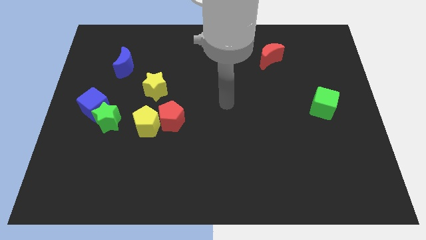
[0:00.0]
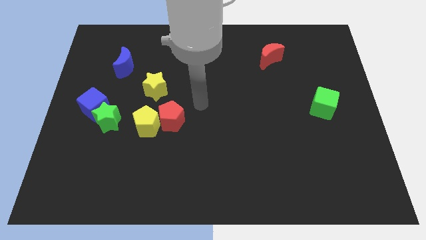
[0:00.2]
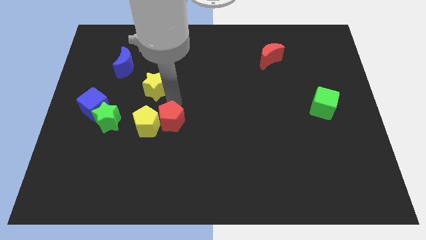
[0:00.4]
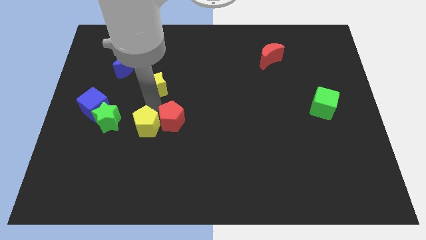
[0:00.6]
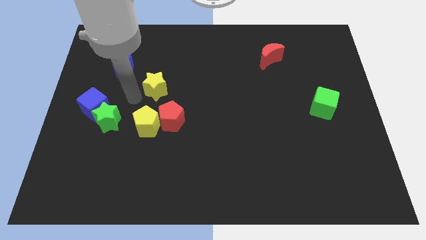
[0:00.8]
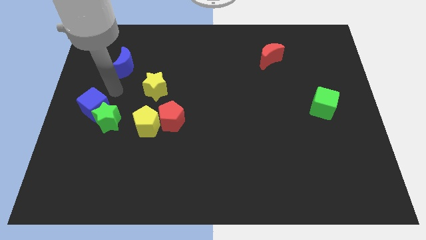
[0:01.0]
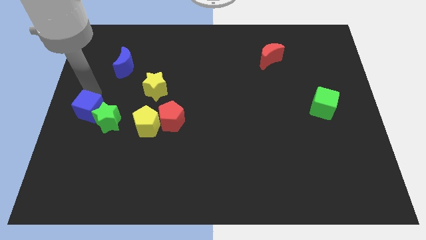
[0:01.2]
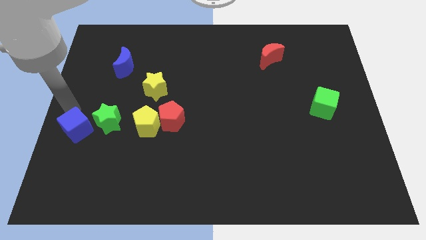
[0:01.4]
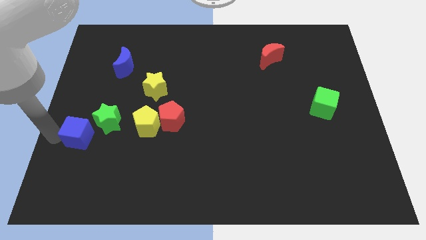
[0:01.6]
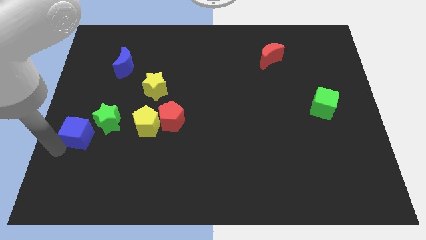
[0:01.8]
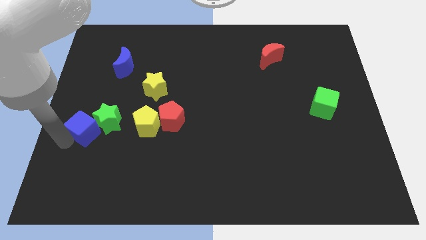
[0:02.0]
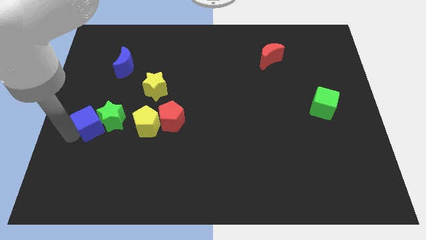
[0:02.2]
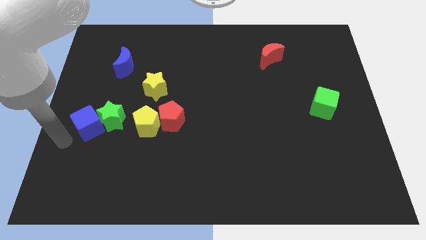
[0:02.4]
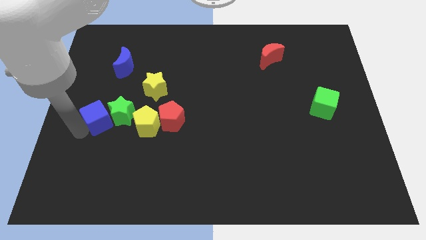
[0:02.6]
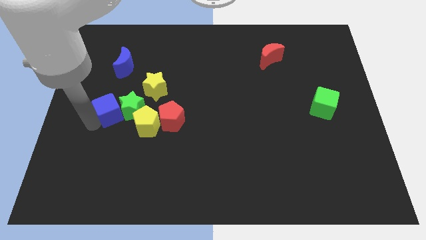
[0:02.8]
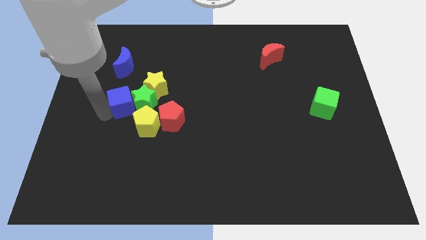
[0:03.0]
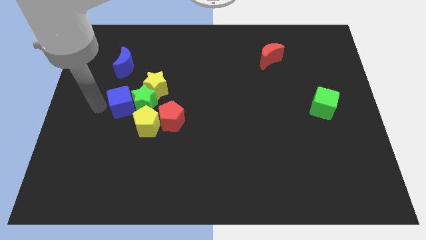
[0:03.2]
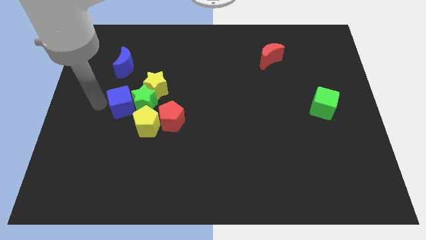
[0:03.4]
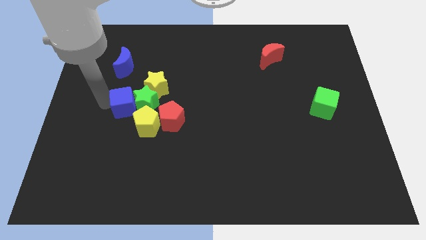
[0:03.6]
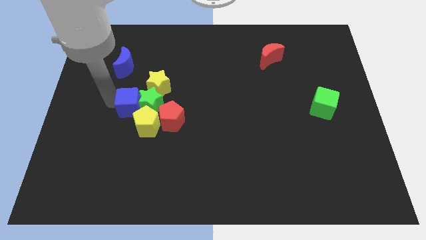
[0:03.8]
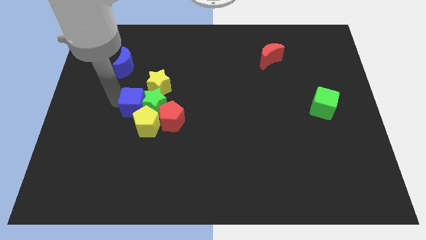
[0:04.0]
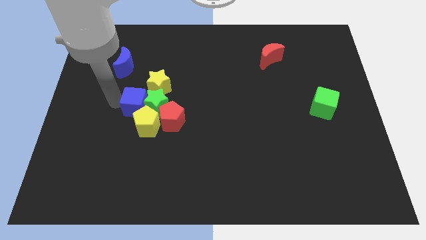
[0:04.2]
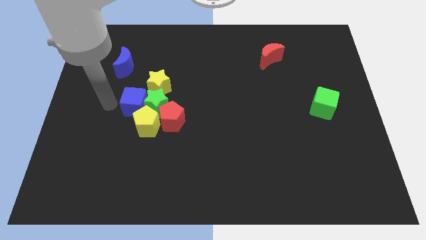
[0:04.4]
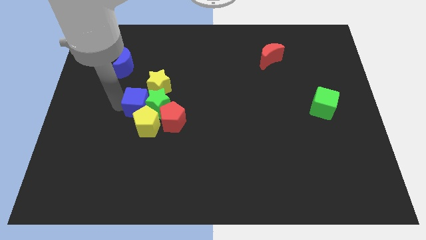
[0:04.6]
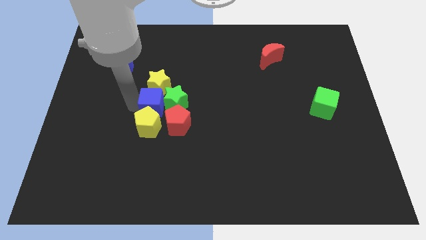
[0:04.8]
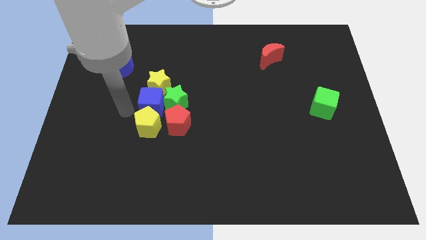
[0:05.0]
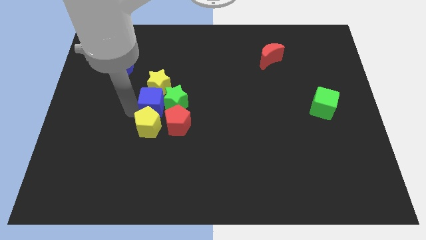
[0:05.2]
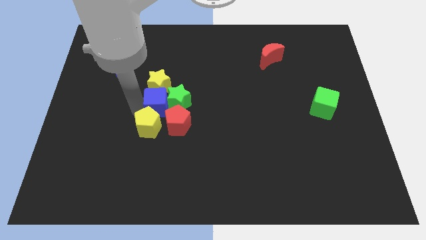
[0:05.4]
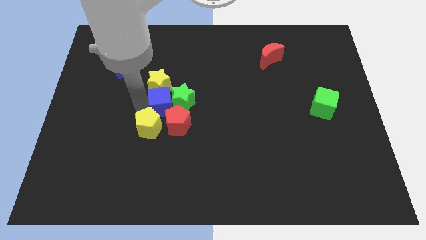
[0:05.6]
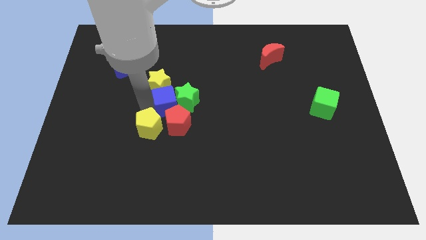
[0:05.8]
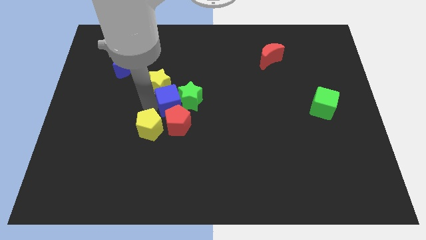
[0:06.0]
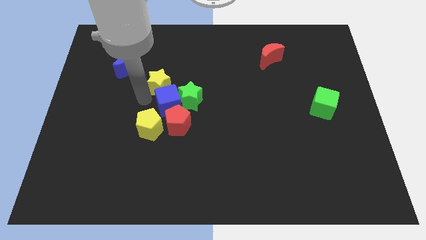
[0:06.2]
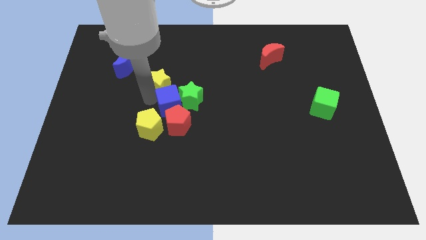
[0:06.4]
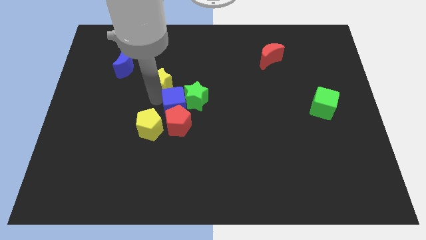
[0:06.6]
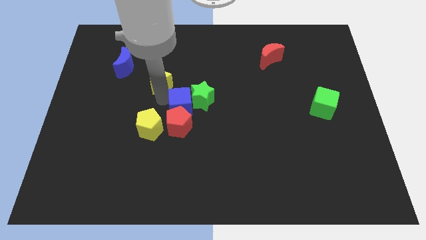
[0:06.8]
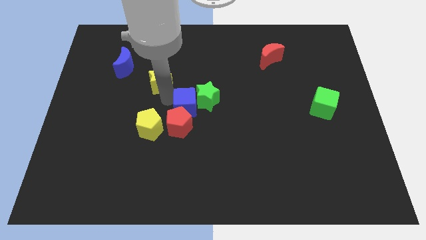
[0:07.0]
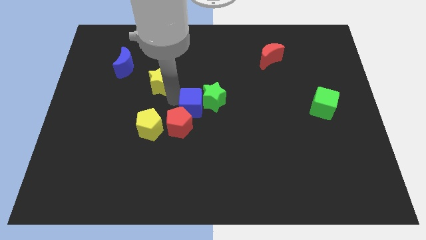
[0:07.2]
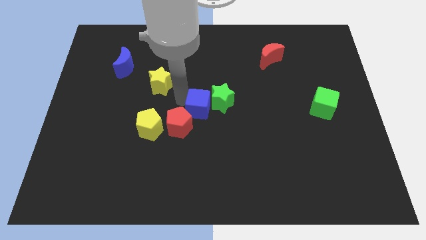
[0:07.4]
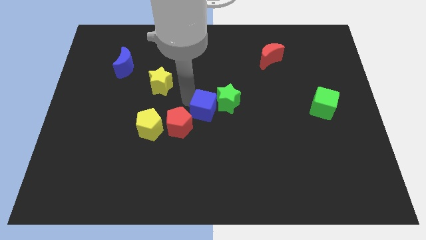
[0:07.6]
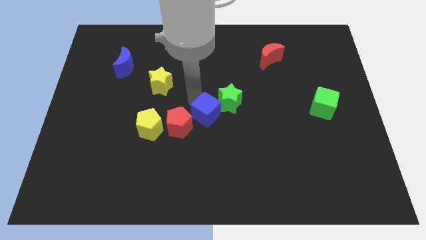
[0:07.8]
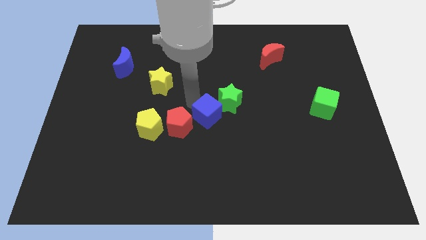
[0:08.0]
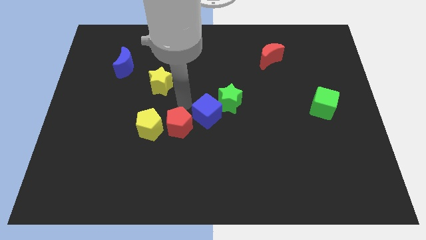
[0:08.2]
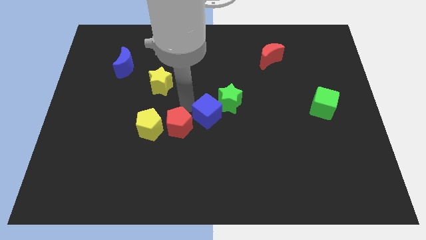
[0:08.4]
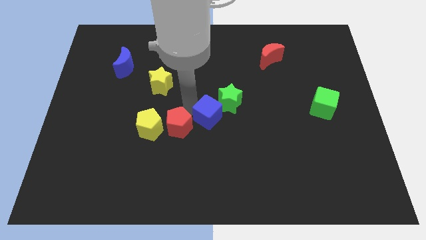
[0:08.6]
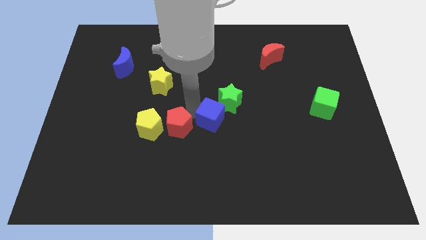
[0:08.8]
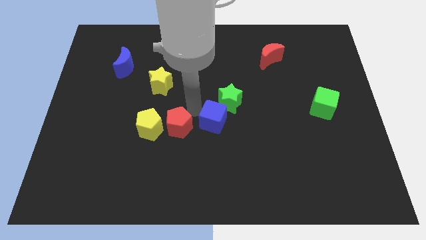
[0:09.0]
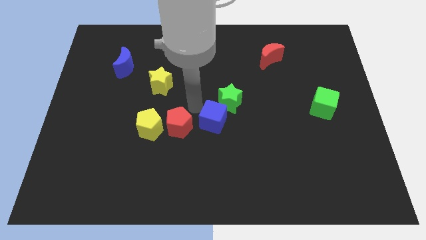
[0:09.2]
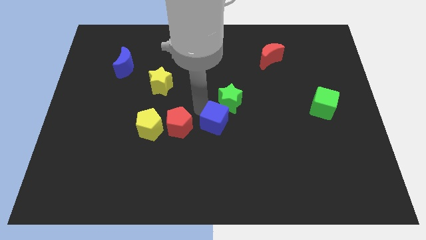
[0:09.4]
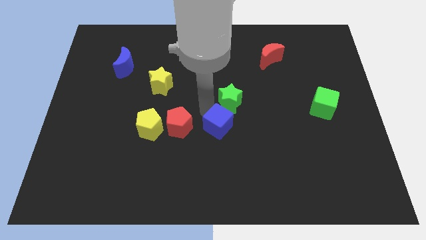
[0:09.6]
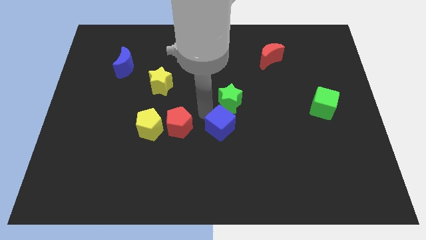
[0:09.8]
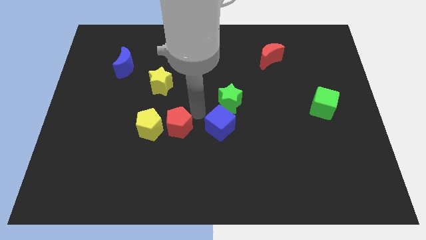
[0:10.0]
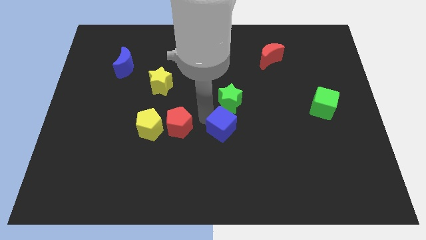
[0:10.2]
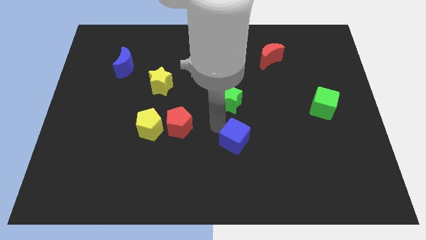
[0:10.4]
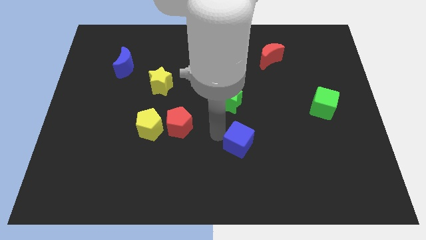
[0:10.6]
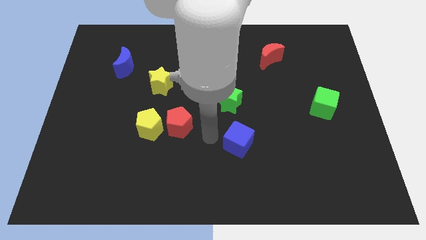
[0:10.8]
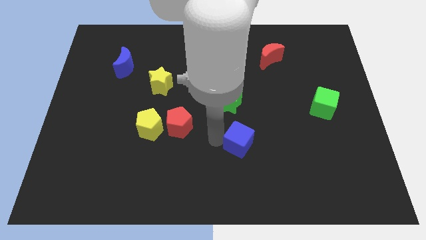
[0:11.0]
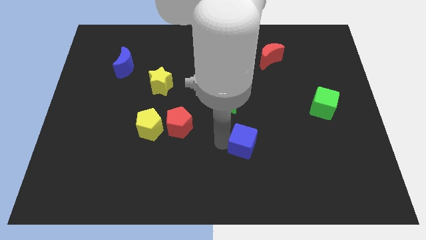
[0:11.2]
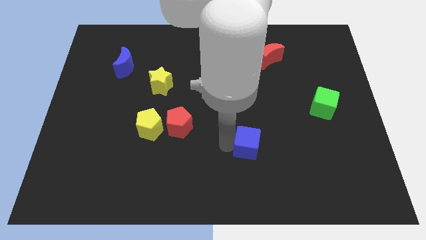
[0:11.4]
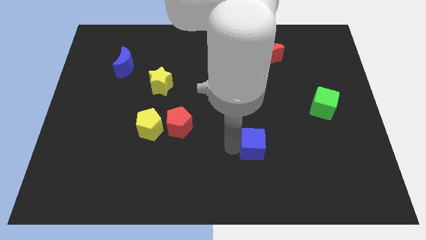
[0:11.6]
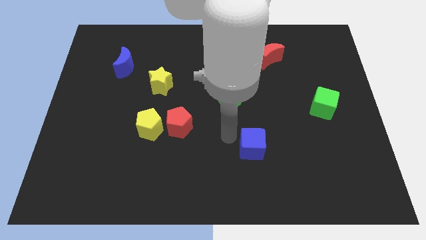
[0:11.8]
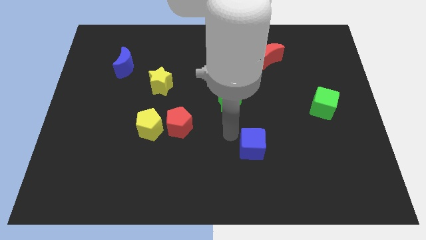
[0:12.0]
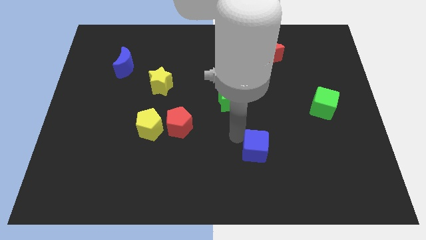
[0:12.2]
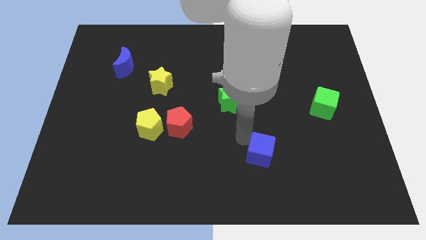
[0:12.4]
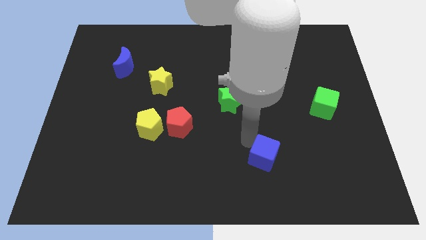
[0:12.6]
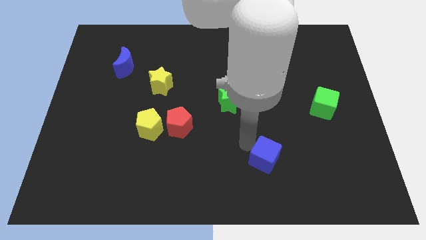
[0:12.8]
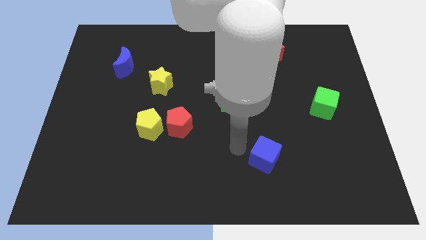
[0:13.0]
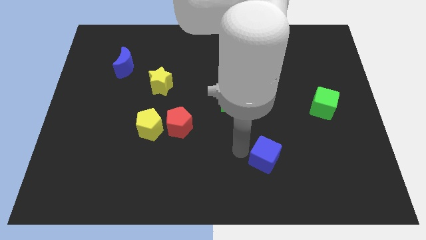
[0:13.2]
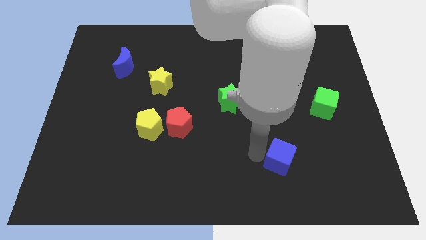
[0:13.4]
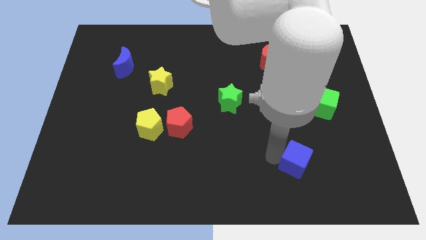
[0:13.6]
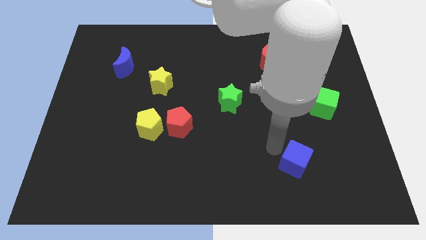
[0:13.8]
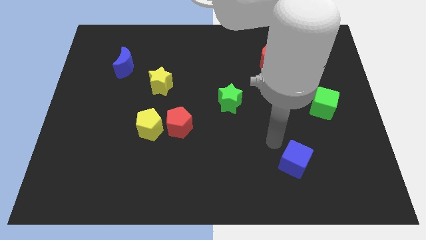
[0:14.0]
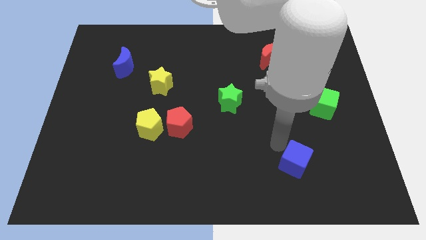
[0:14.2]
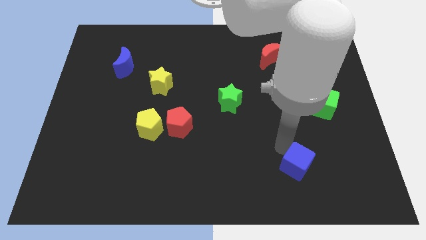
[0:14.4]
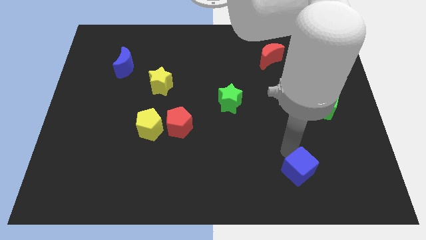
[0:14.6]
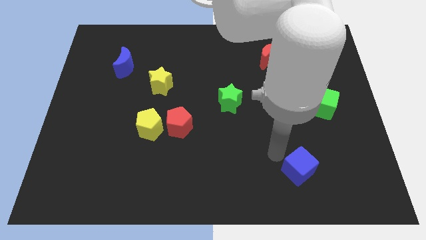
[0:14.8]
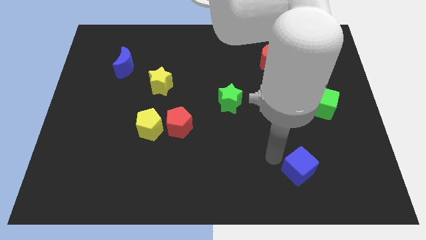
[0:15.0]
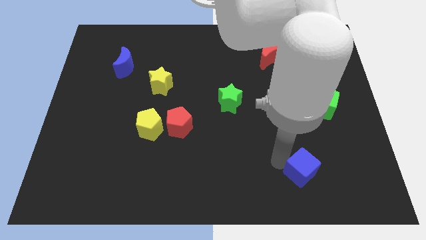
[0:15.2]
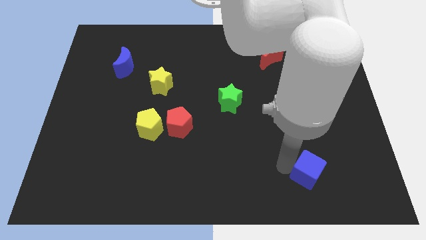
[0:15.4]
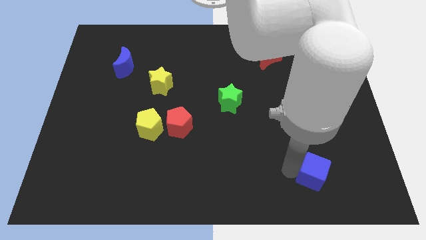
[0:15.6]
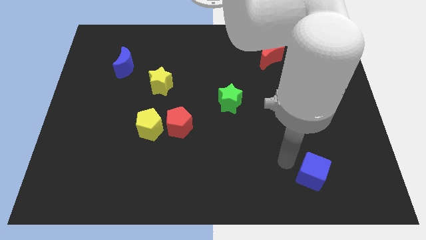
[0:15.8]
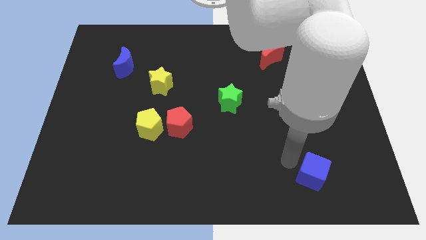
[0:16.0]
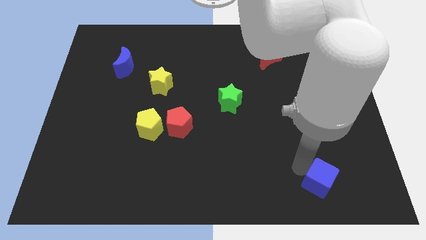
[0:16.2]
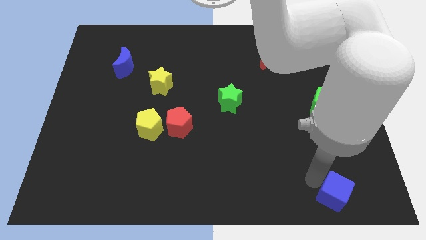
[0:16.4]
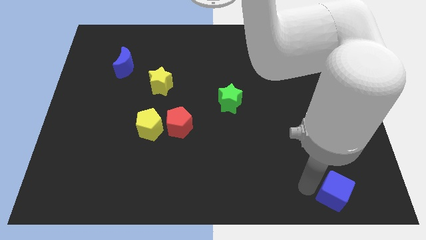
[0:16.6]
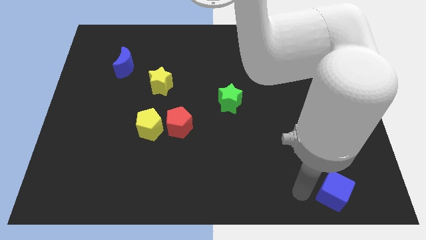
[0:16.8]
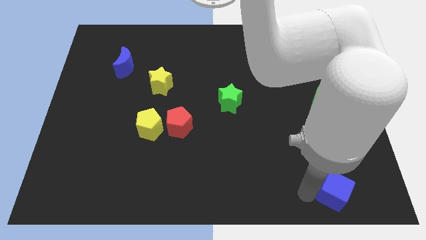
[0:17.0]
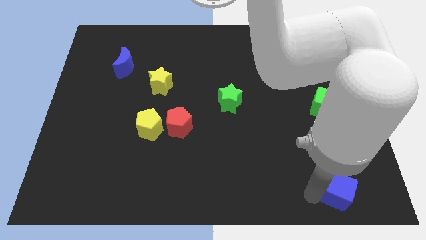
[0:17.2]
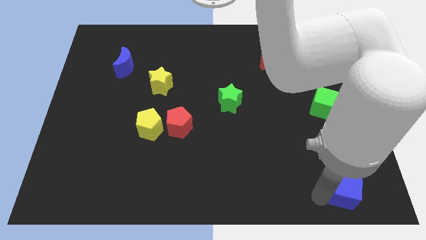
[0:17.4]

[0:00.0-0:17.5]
put the blue cube to the bottom right
